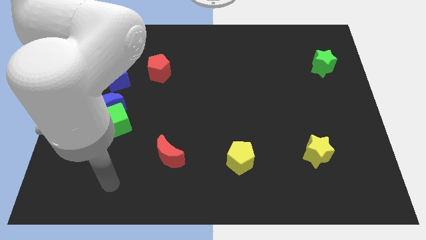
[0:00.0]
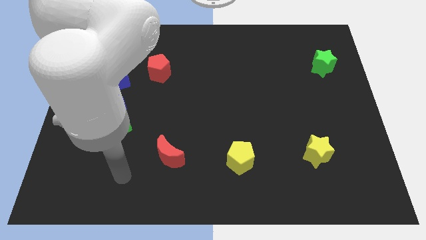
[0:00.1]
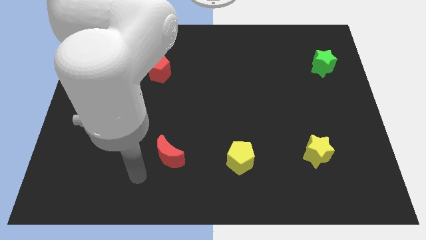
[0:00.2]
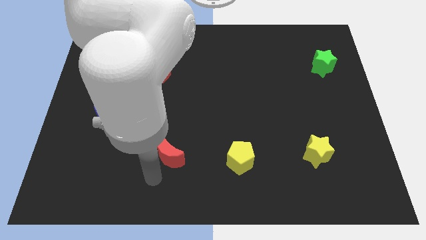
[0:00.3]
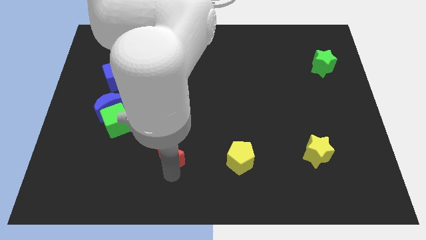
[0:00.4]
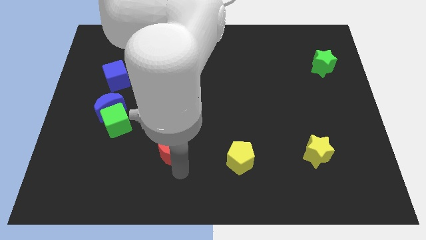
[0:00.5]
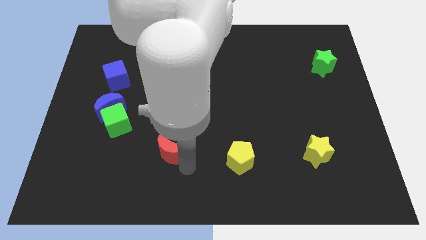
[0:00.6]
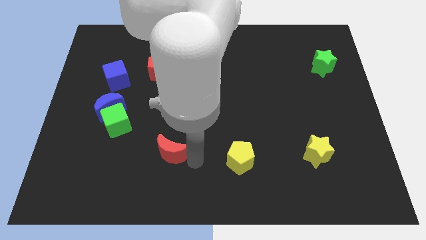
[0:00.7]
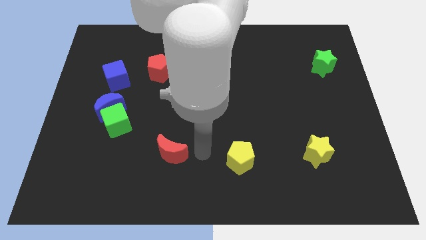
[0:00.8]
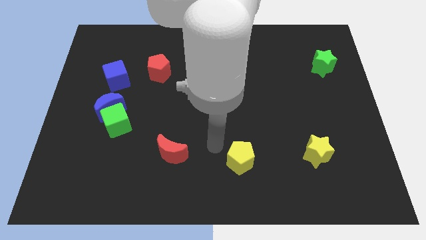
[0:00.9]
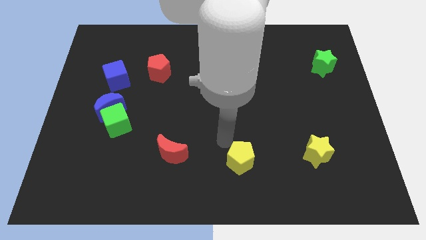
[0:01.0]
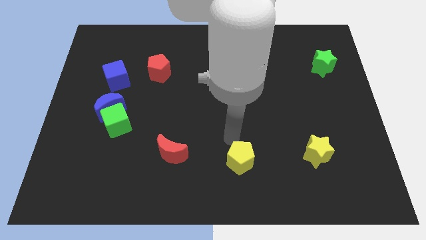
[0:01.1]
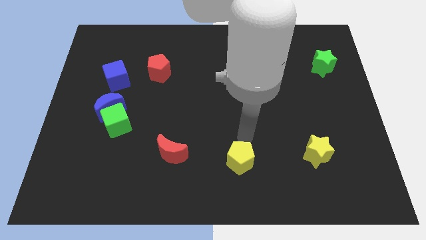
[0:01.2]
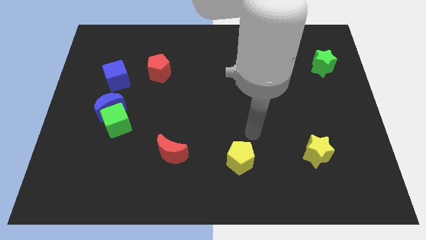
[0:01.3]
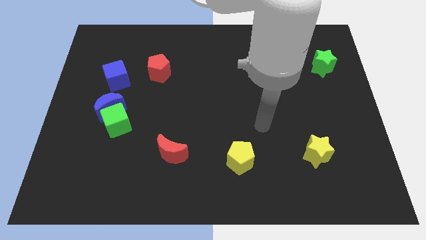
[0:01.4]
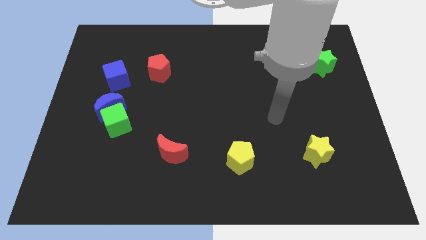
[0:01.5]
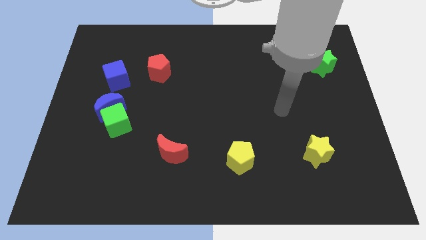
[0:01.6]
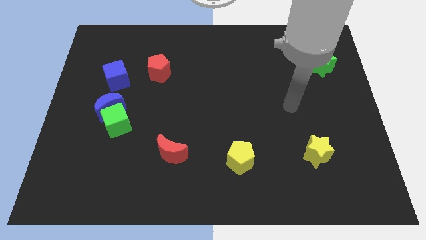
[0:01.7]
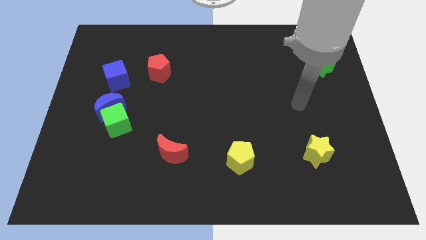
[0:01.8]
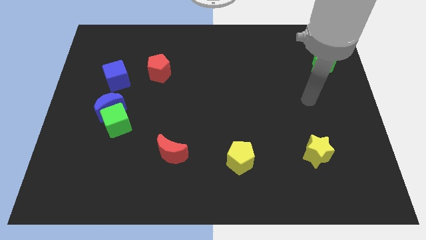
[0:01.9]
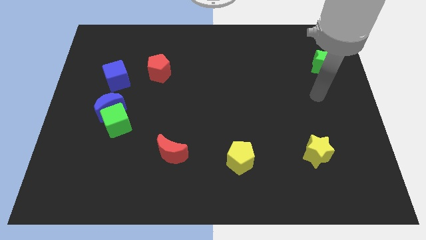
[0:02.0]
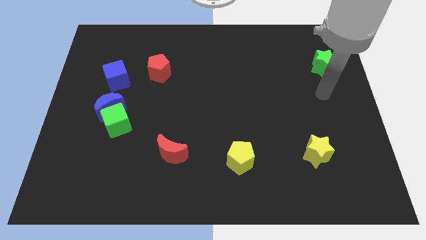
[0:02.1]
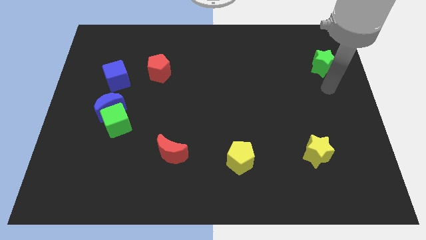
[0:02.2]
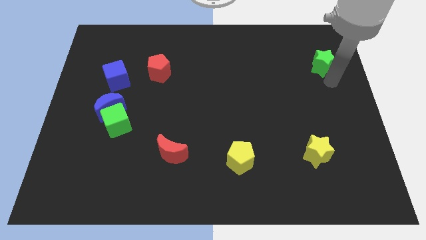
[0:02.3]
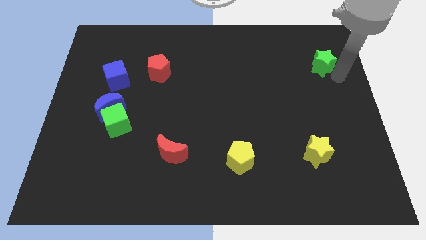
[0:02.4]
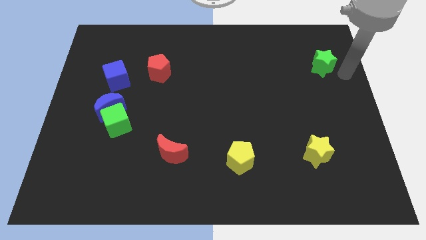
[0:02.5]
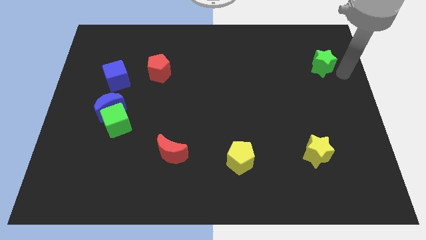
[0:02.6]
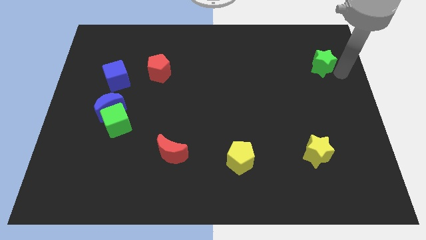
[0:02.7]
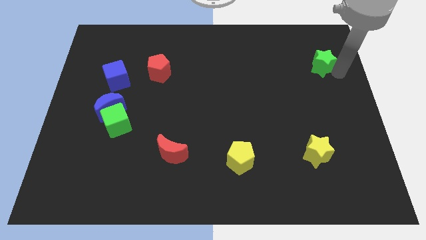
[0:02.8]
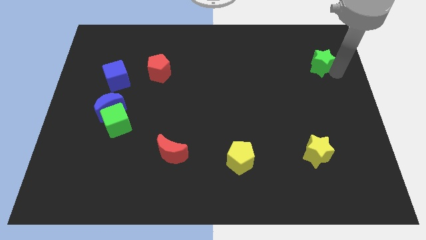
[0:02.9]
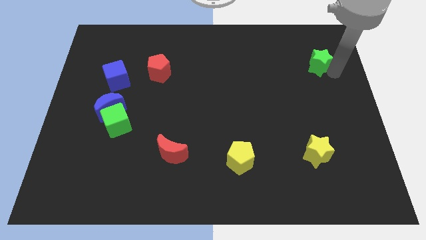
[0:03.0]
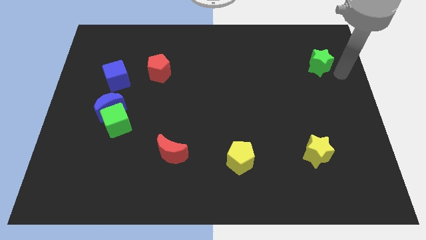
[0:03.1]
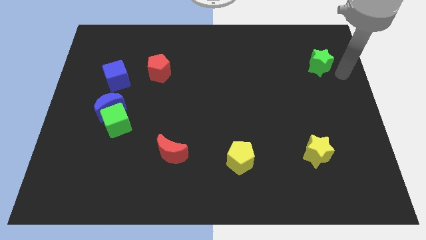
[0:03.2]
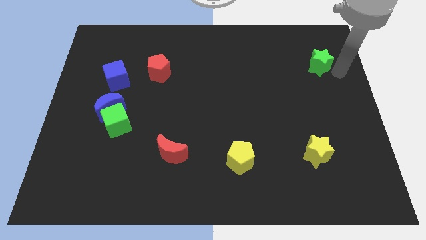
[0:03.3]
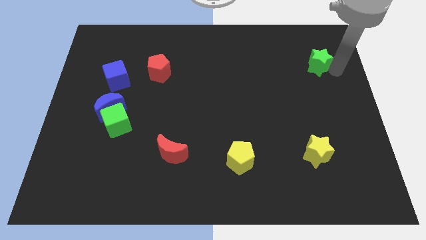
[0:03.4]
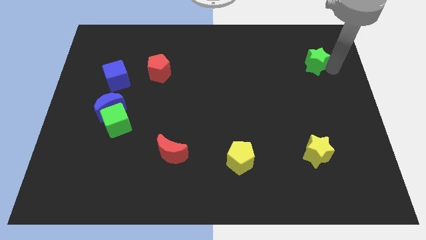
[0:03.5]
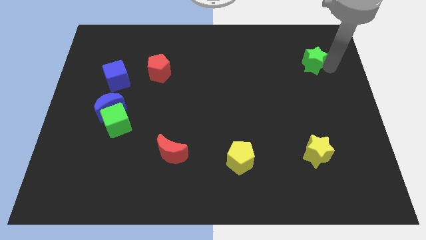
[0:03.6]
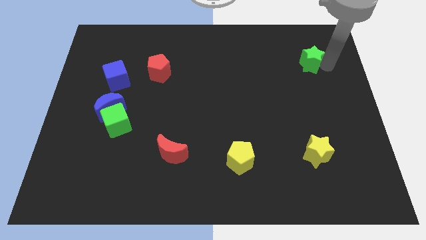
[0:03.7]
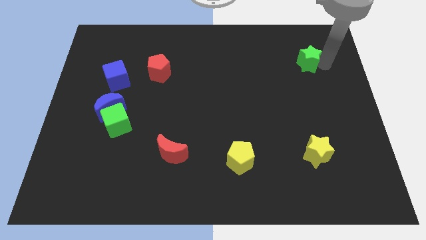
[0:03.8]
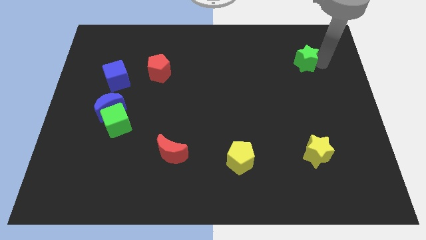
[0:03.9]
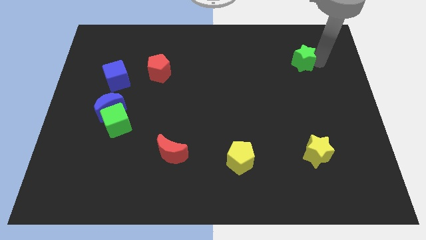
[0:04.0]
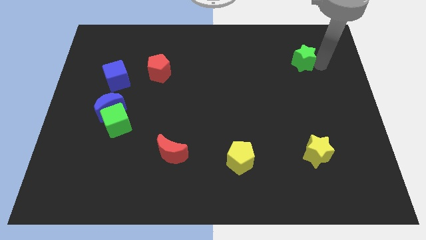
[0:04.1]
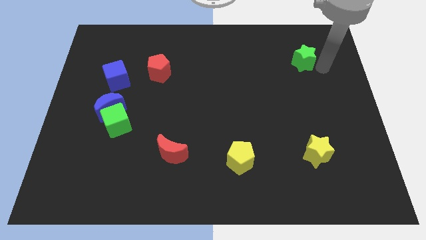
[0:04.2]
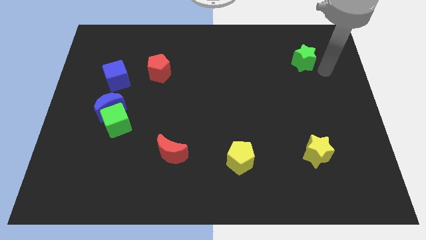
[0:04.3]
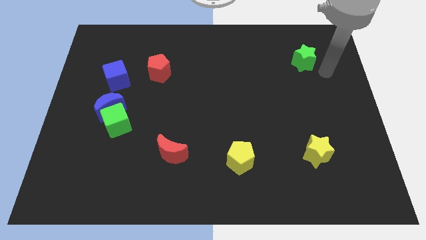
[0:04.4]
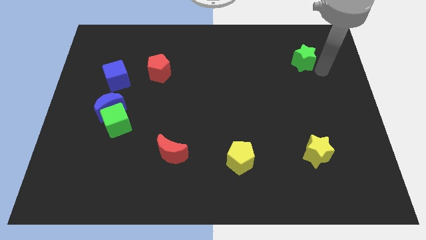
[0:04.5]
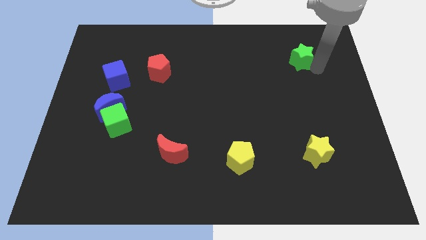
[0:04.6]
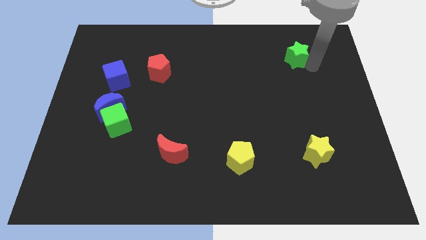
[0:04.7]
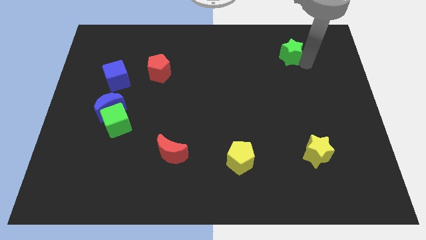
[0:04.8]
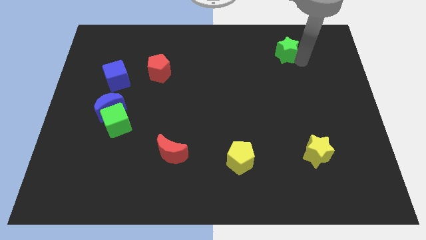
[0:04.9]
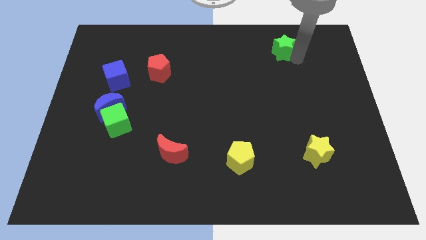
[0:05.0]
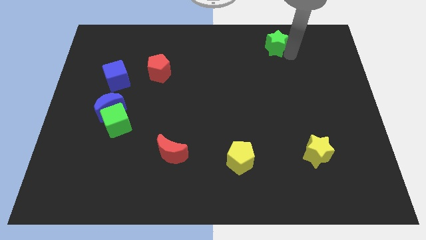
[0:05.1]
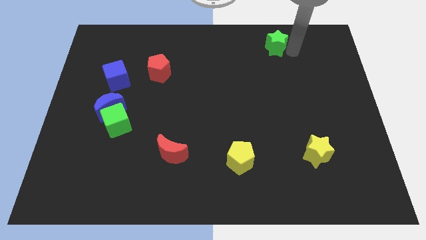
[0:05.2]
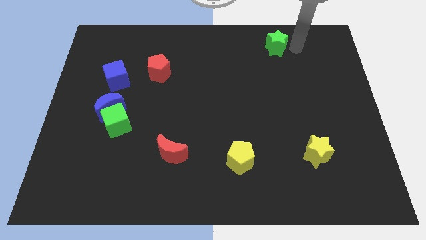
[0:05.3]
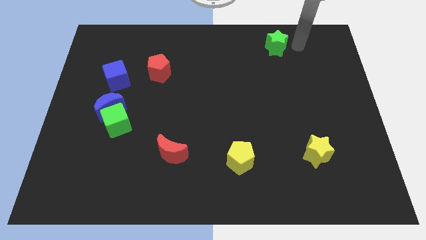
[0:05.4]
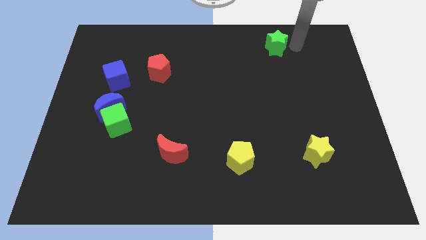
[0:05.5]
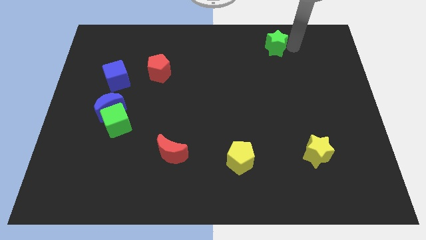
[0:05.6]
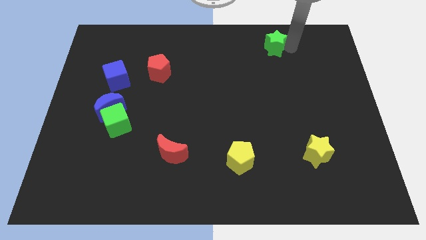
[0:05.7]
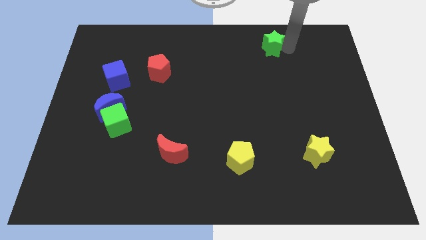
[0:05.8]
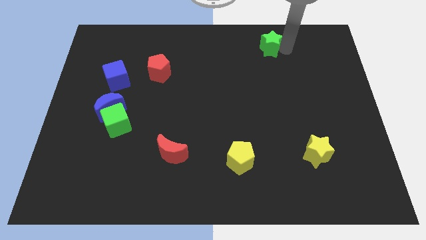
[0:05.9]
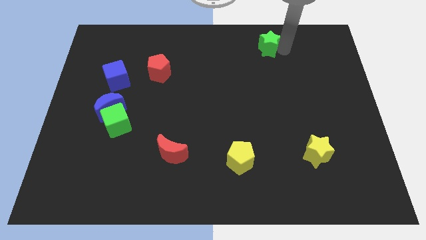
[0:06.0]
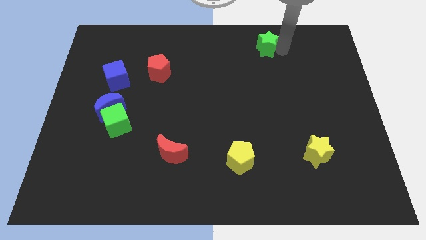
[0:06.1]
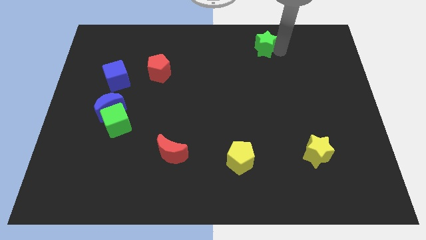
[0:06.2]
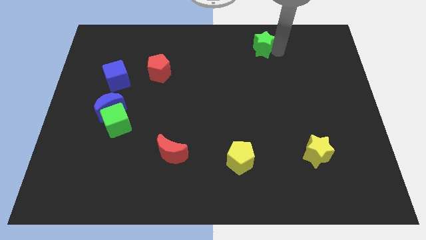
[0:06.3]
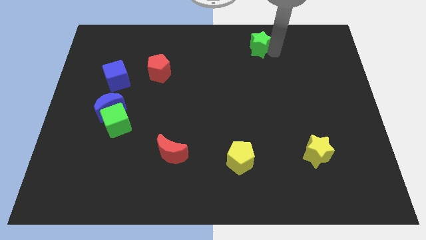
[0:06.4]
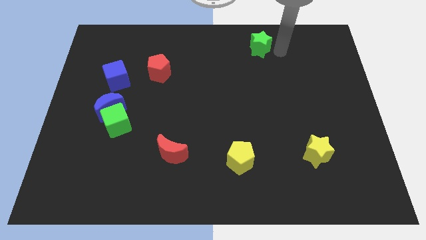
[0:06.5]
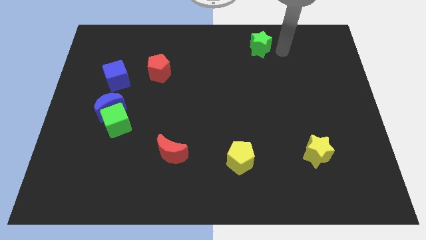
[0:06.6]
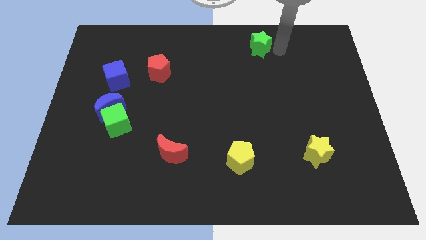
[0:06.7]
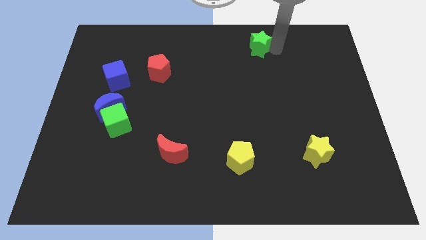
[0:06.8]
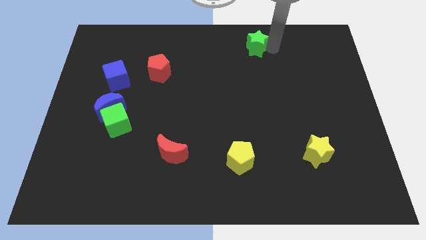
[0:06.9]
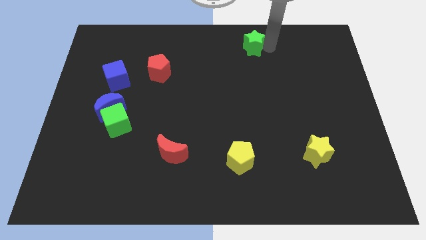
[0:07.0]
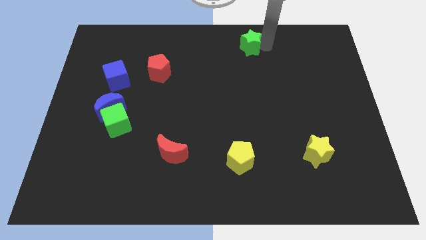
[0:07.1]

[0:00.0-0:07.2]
push the green star to the towards your base
